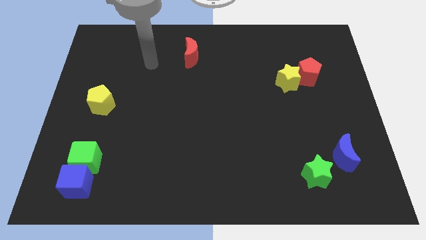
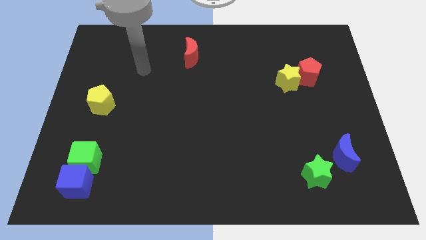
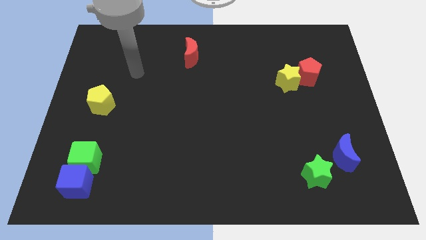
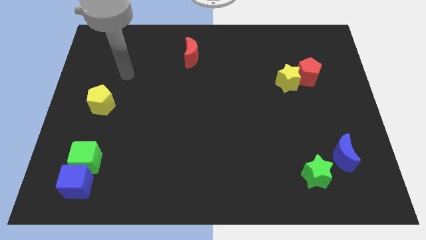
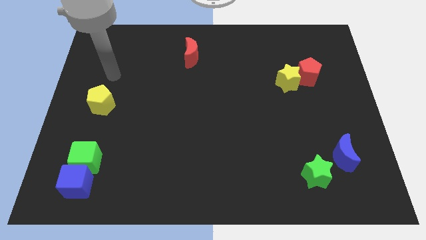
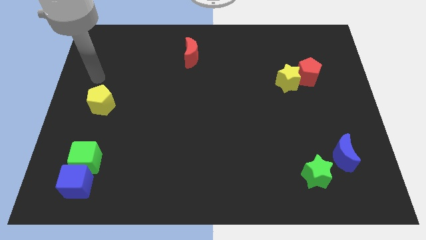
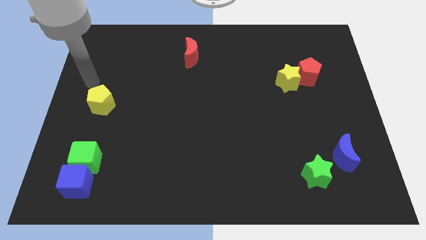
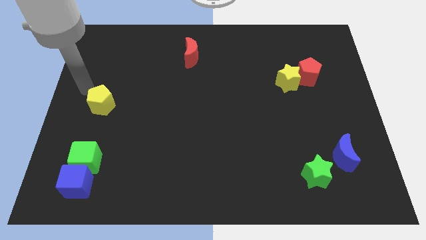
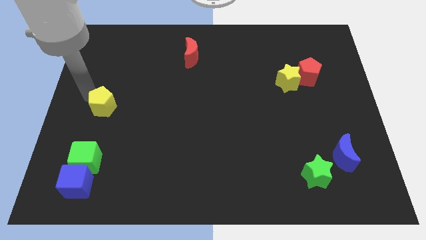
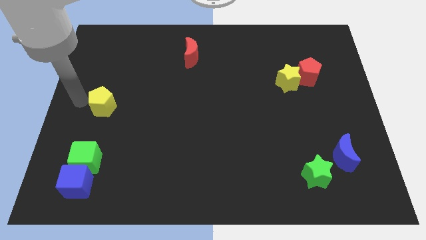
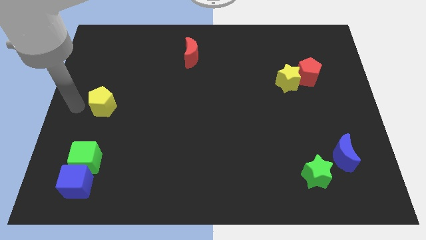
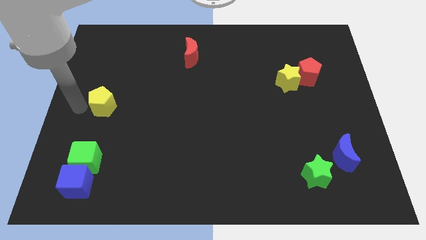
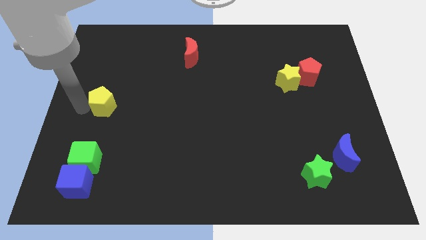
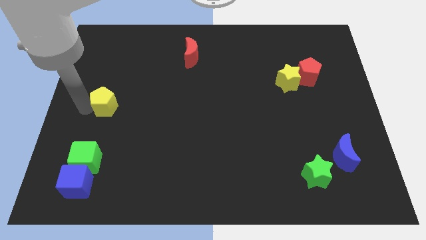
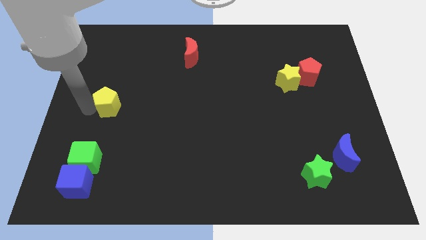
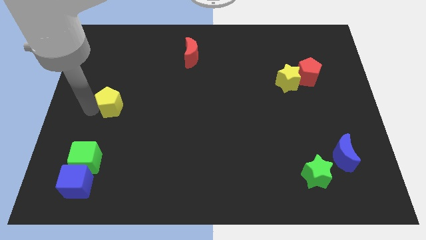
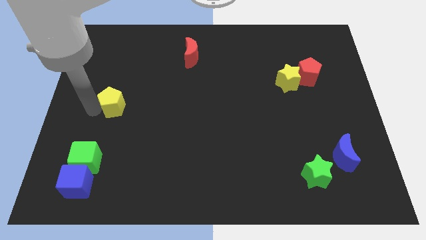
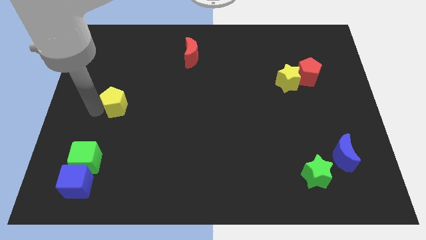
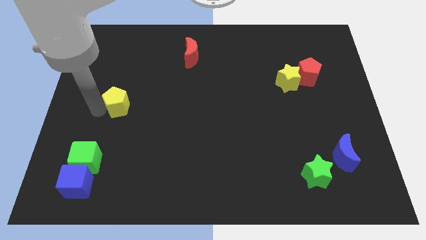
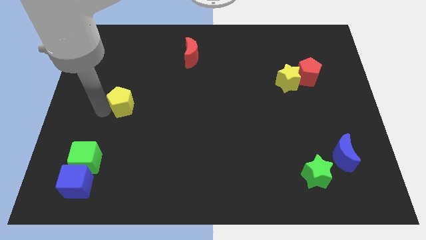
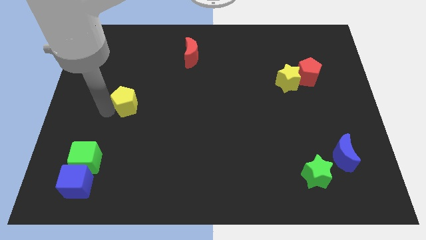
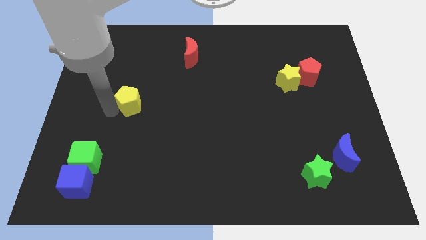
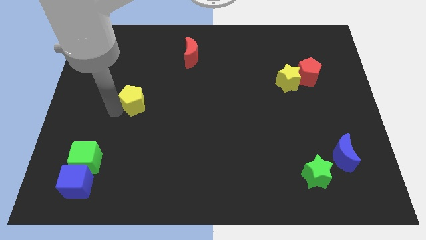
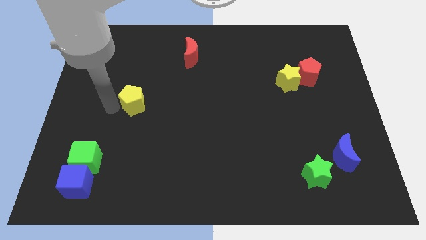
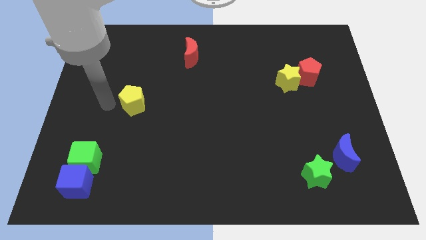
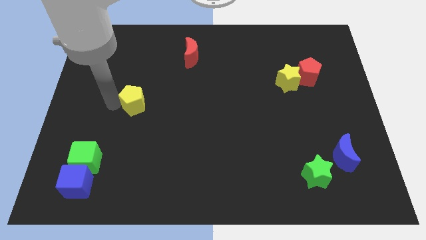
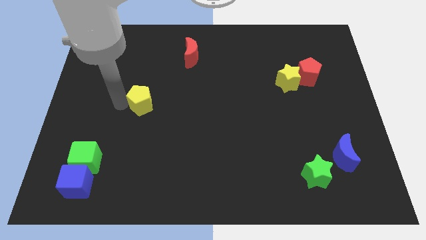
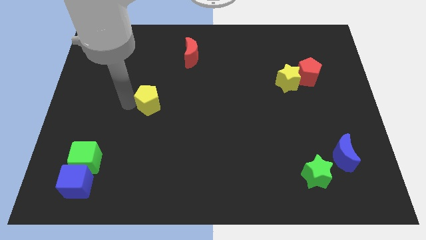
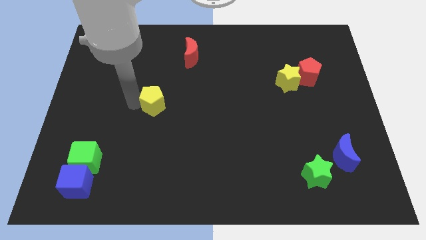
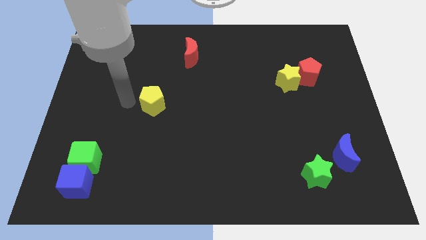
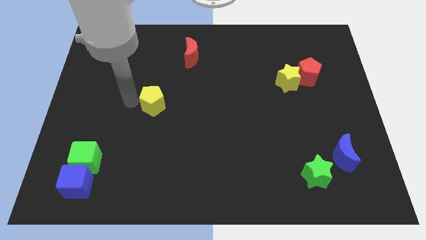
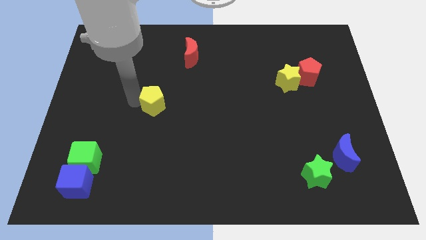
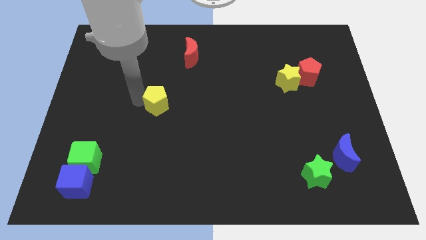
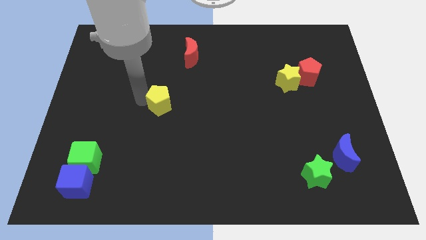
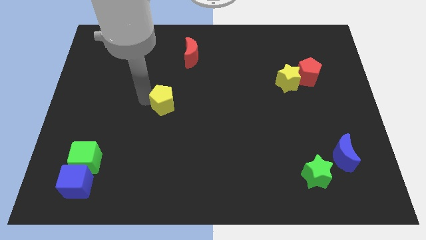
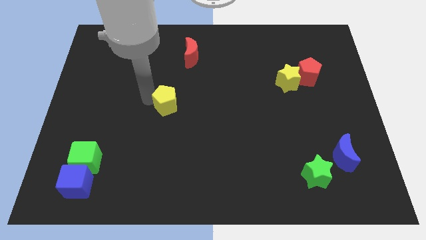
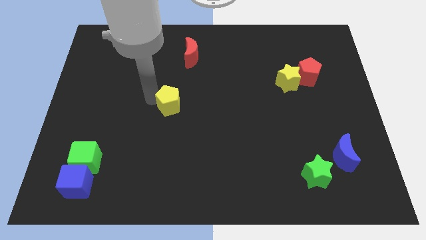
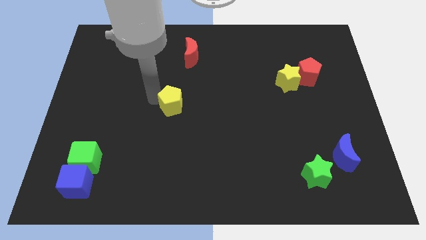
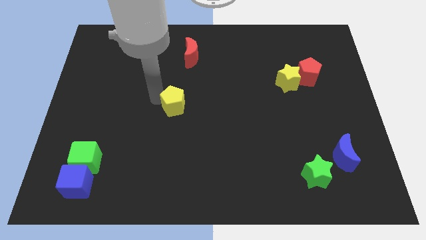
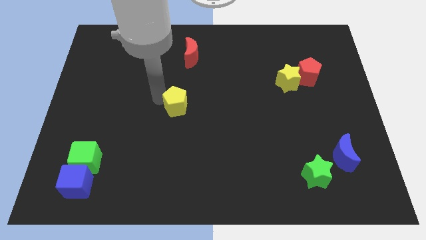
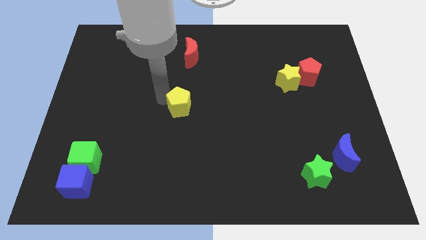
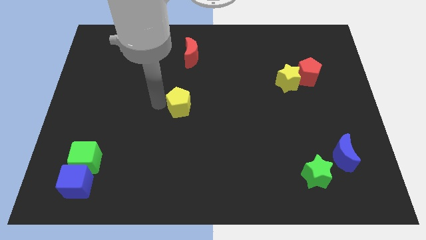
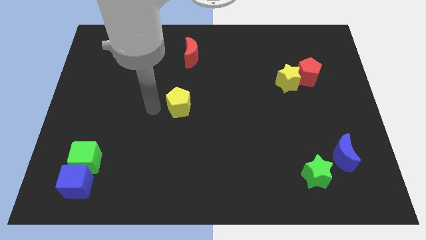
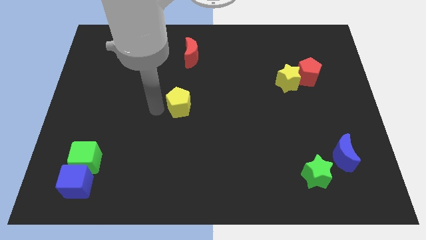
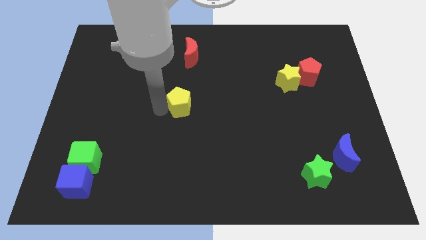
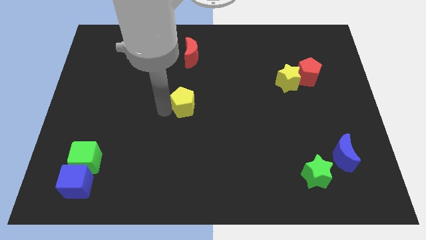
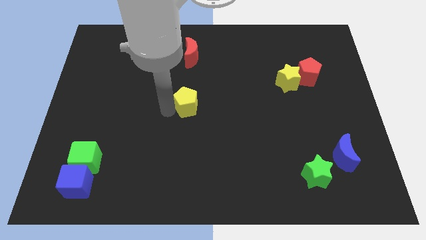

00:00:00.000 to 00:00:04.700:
push the yellow pentagon right

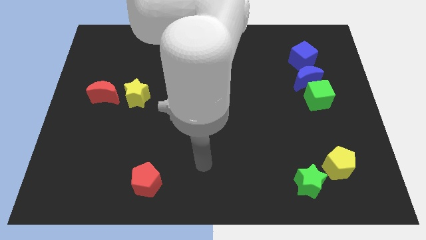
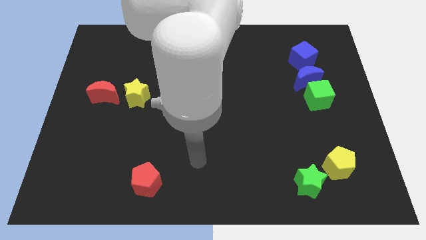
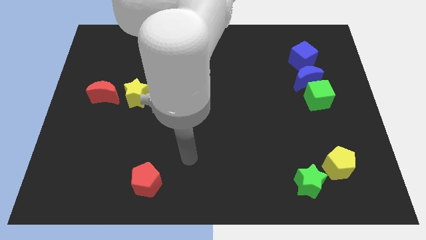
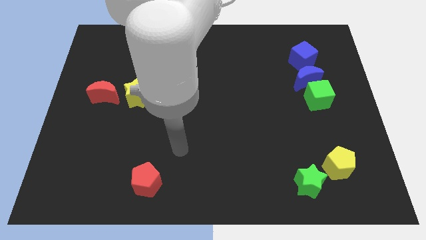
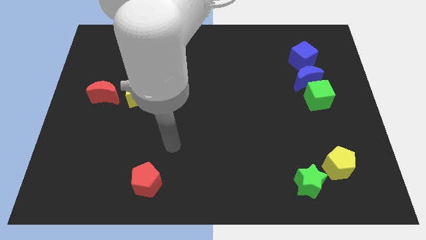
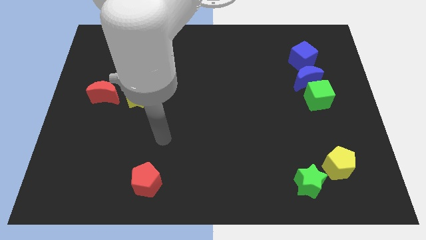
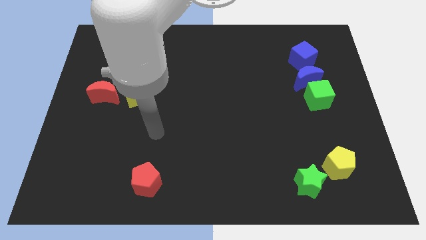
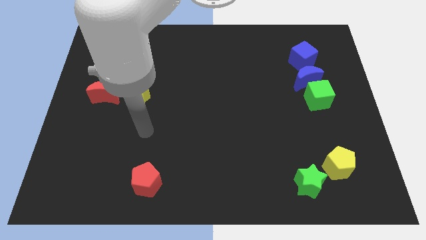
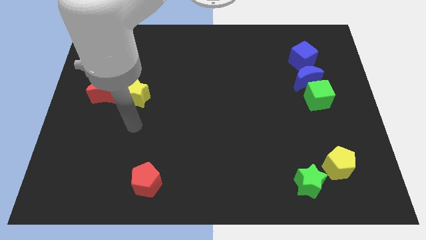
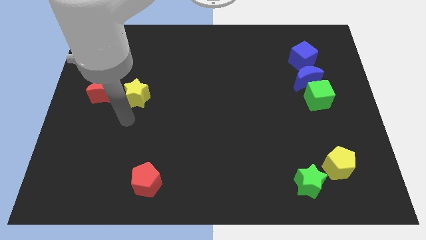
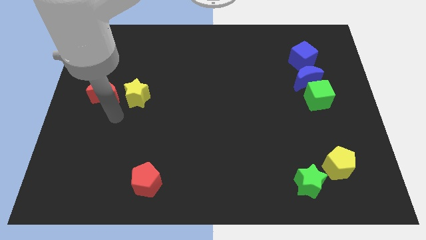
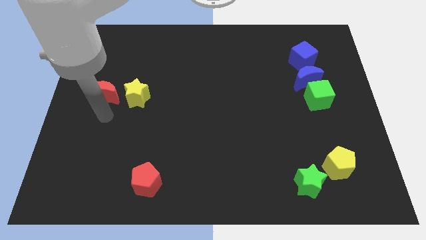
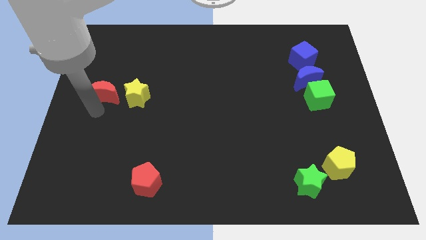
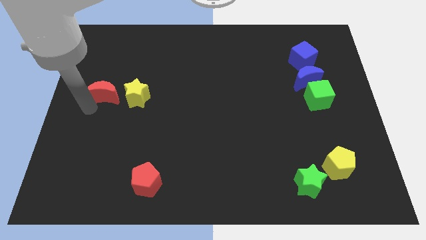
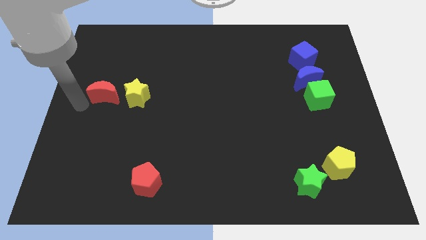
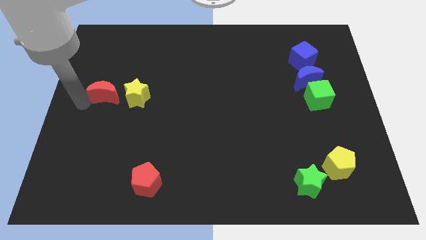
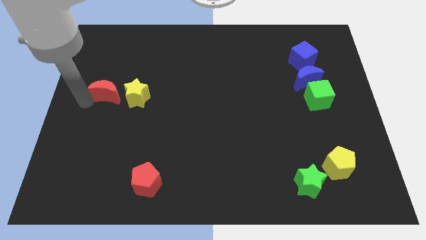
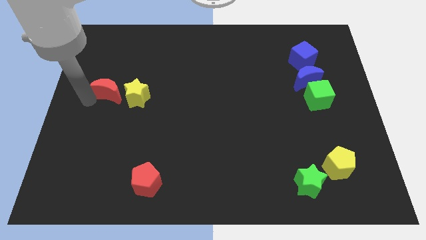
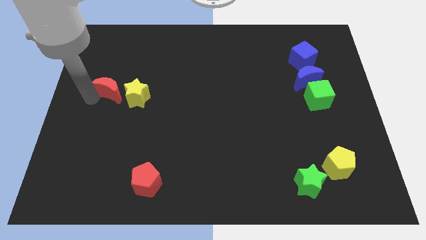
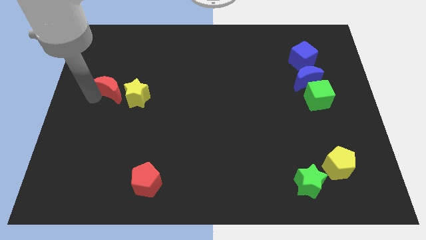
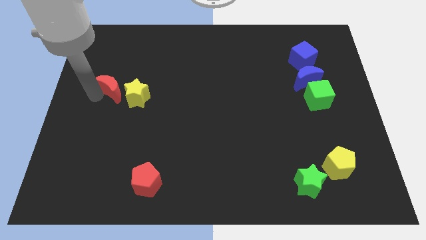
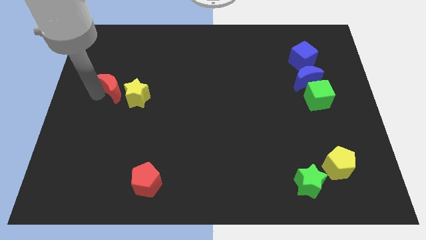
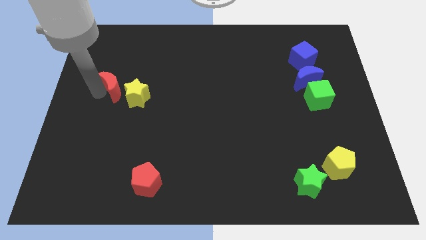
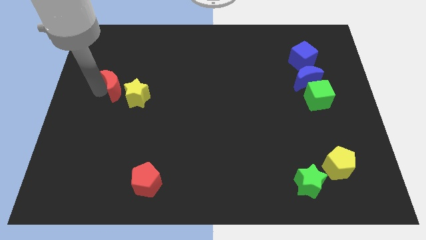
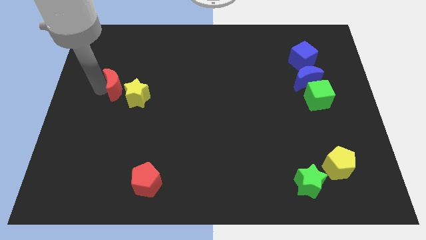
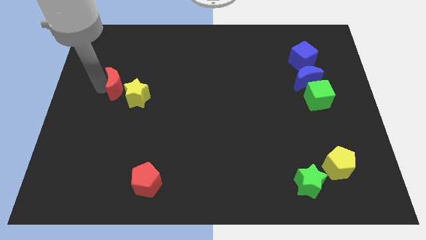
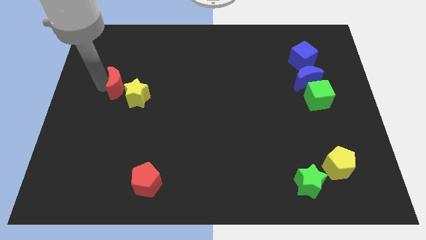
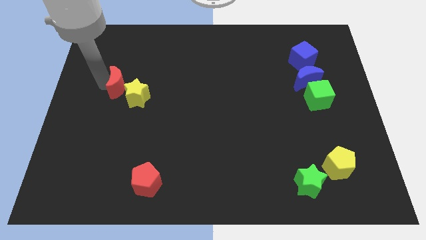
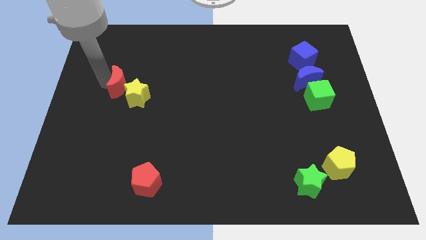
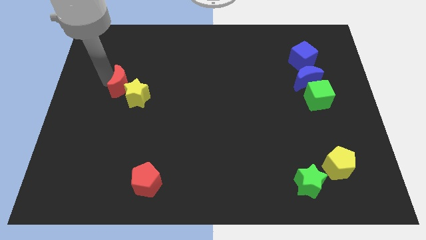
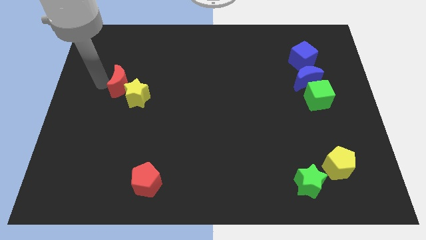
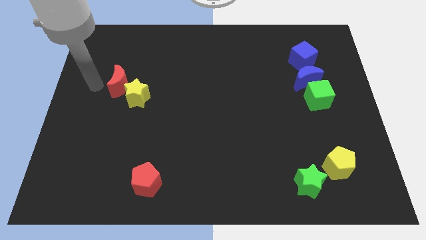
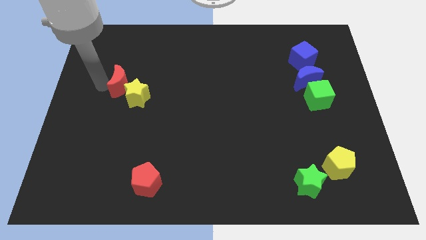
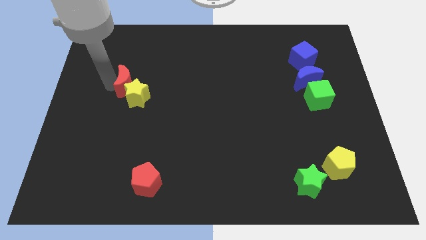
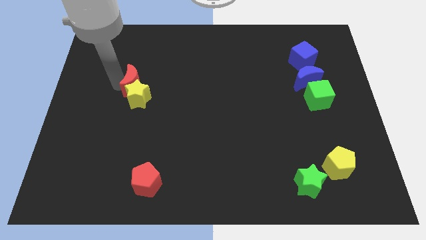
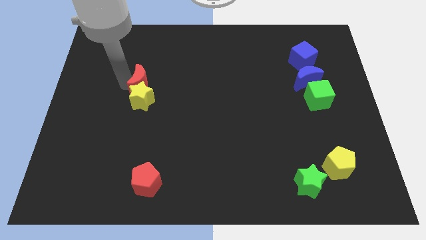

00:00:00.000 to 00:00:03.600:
slide the red moon a little right
